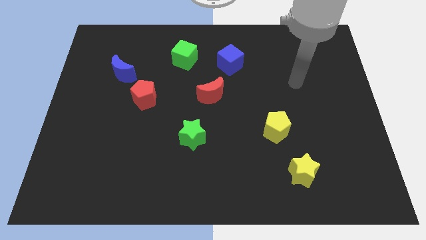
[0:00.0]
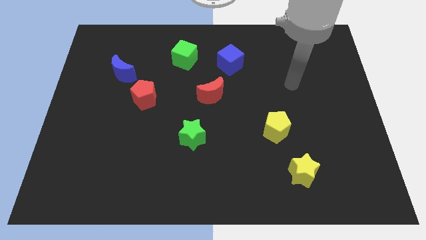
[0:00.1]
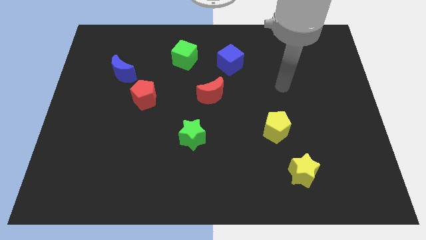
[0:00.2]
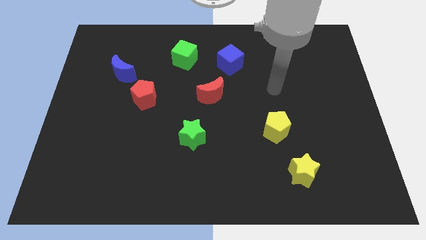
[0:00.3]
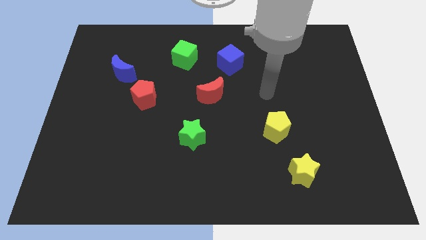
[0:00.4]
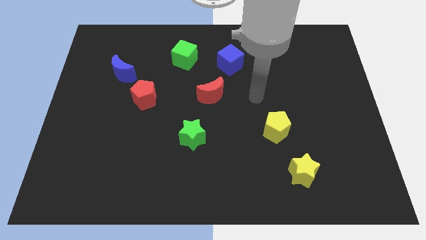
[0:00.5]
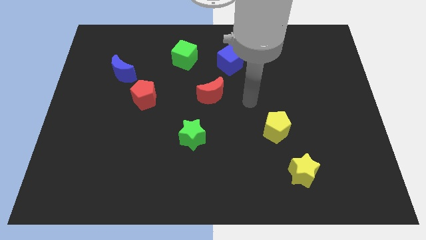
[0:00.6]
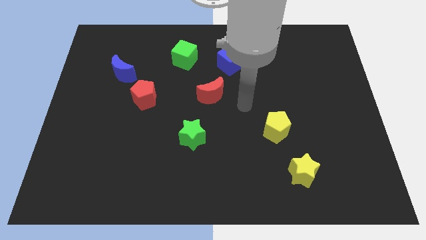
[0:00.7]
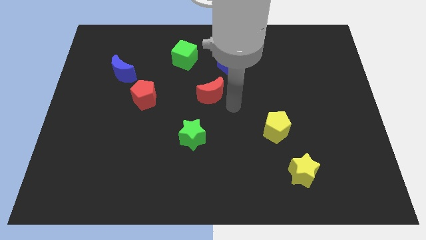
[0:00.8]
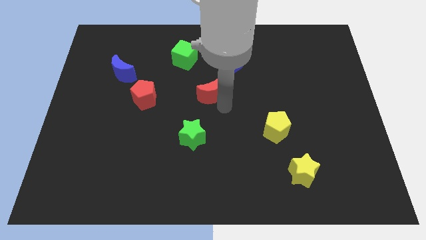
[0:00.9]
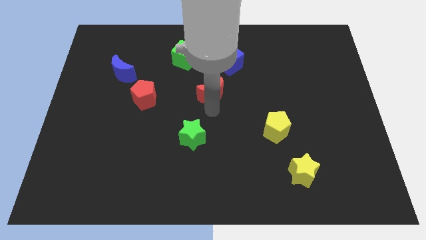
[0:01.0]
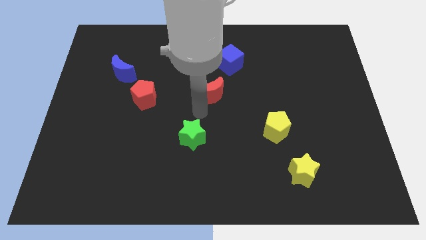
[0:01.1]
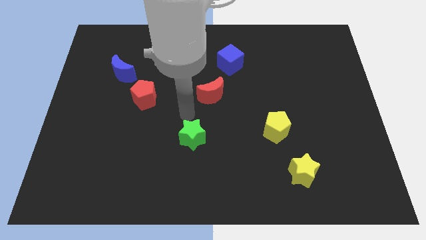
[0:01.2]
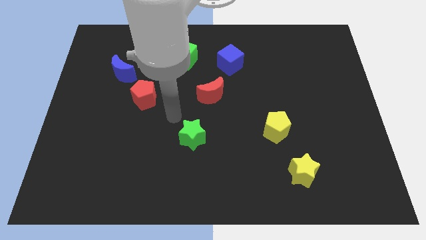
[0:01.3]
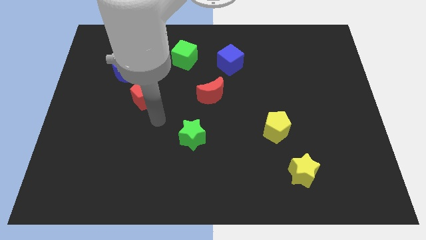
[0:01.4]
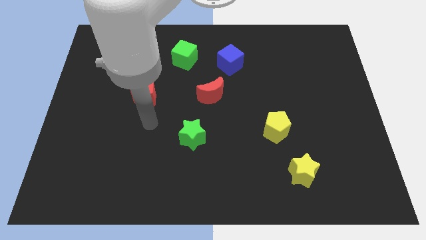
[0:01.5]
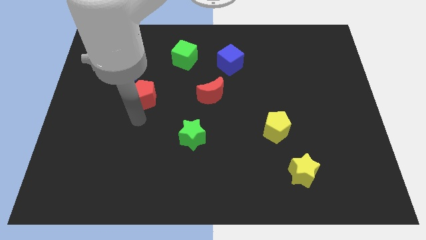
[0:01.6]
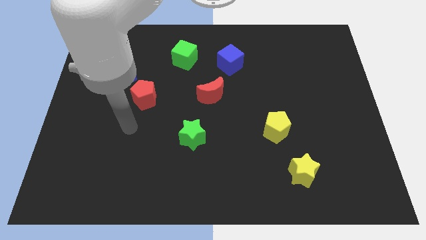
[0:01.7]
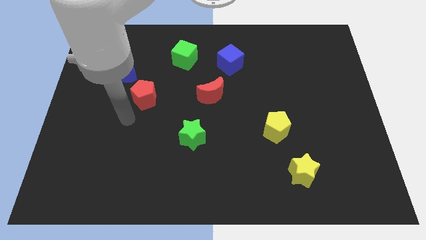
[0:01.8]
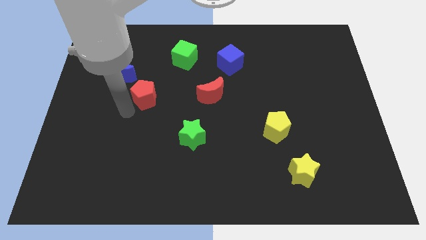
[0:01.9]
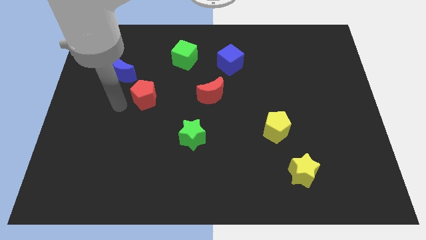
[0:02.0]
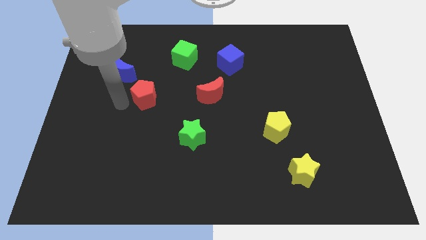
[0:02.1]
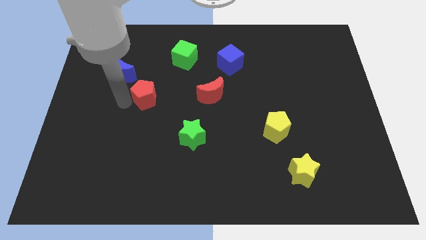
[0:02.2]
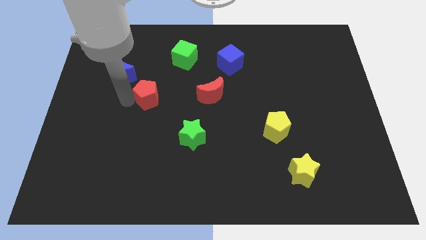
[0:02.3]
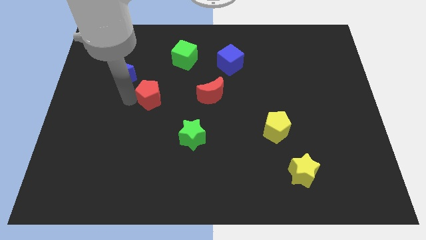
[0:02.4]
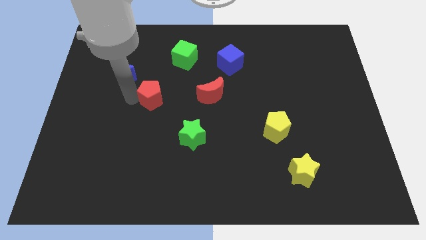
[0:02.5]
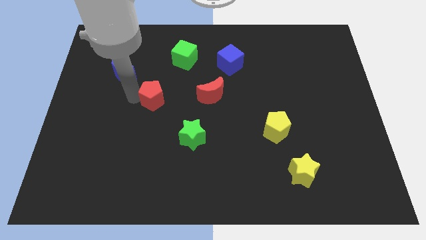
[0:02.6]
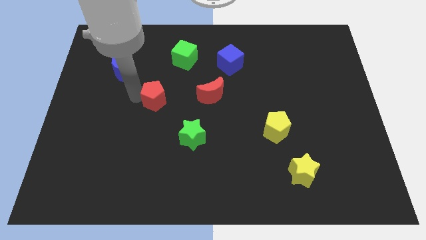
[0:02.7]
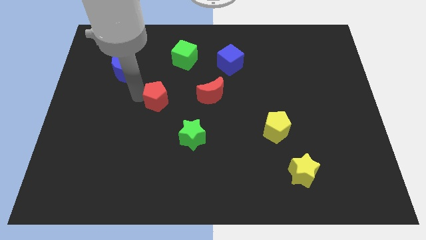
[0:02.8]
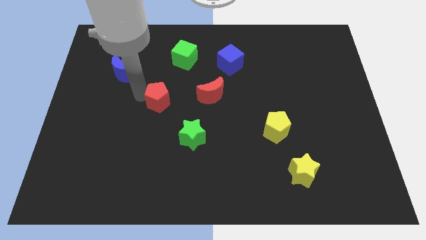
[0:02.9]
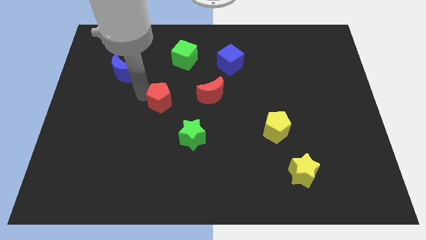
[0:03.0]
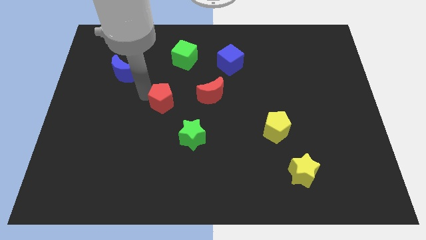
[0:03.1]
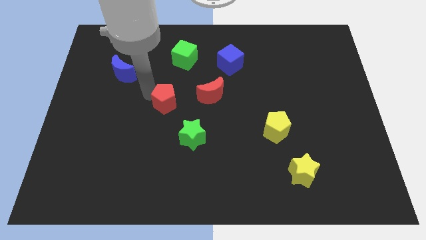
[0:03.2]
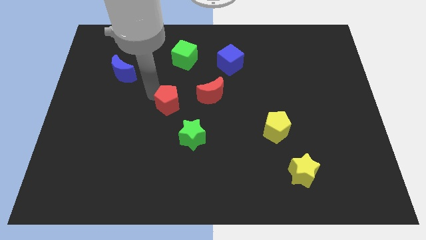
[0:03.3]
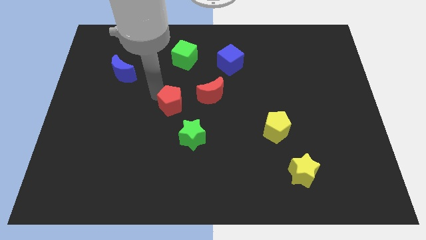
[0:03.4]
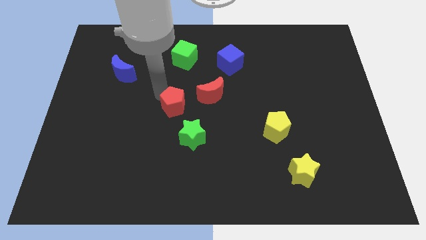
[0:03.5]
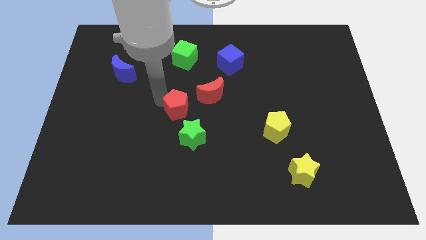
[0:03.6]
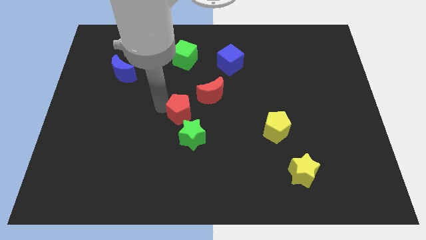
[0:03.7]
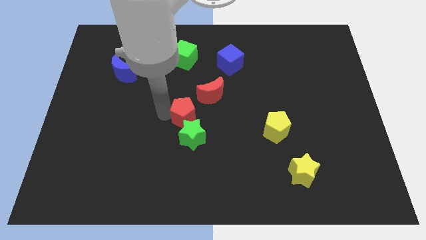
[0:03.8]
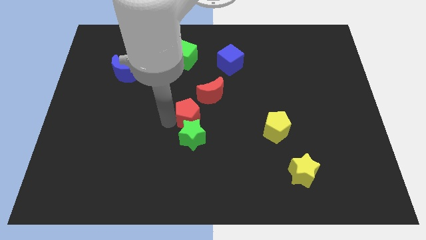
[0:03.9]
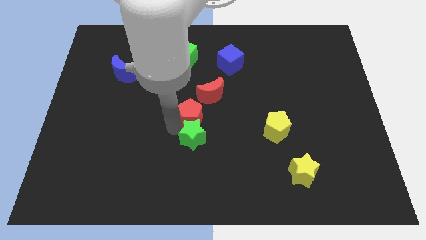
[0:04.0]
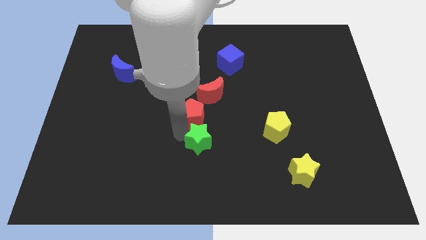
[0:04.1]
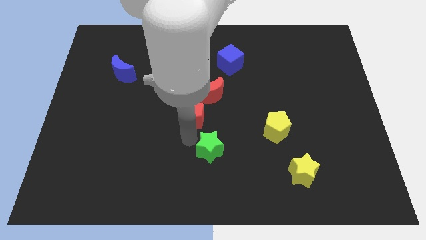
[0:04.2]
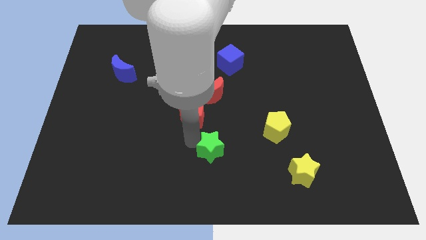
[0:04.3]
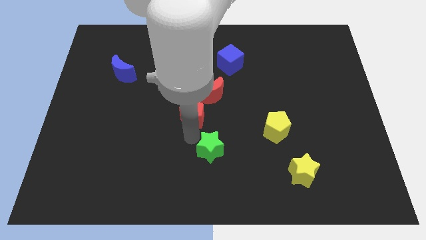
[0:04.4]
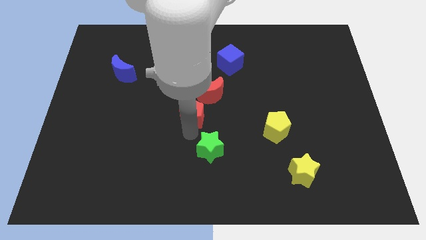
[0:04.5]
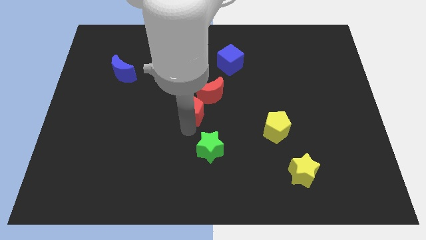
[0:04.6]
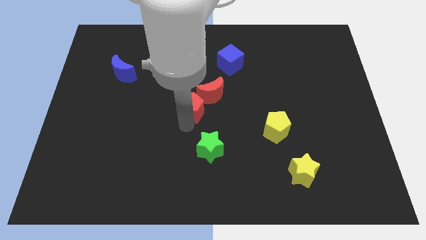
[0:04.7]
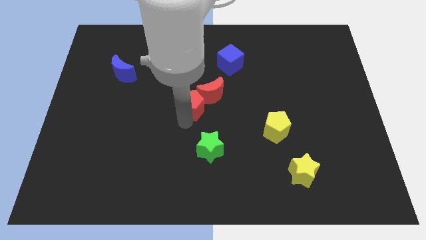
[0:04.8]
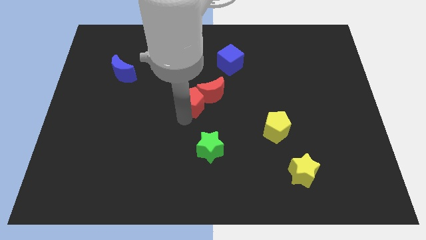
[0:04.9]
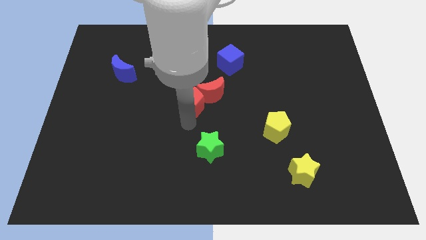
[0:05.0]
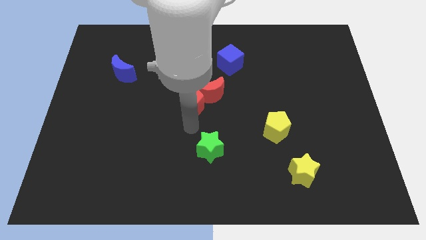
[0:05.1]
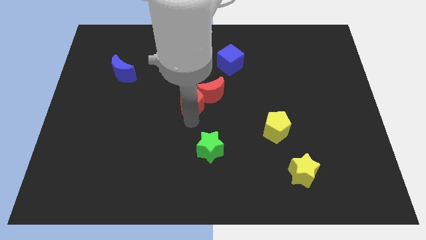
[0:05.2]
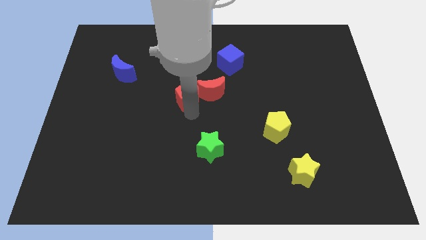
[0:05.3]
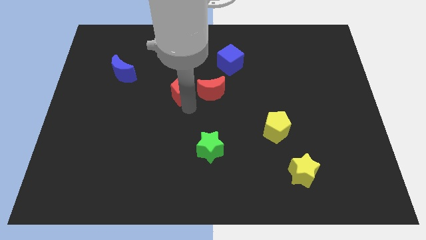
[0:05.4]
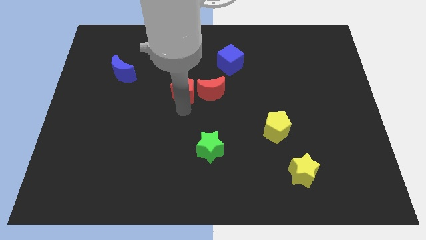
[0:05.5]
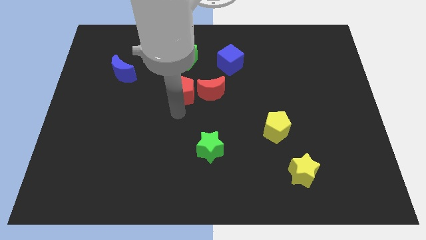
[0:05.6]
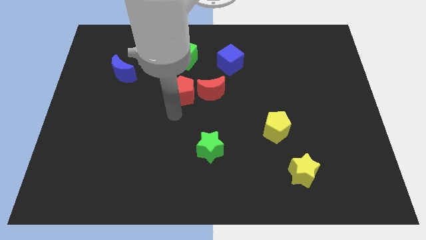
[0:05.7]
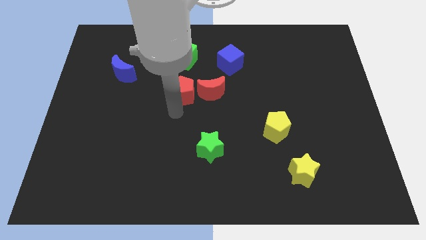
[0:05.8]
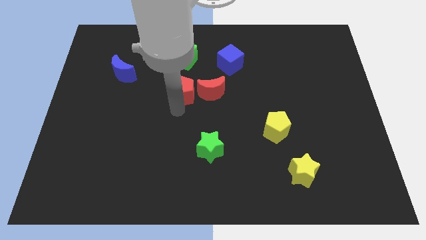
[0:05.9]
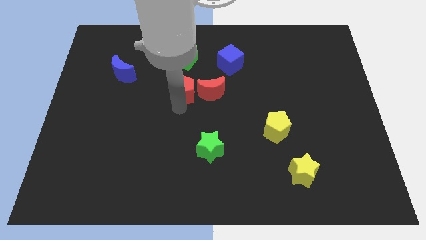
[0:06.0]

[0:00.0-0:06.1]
slide the red pentagon diagonally up and to the left of the red moon

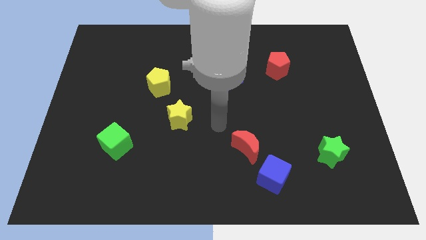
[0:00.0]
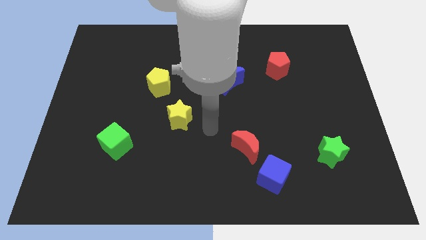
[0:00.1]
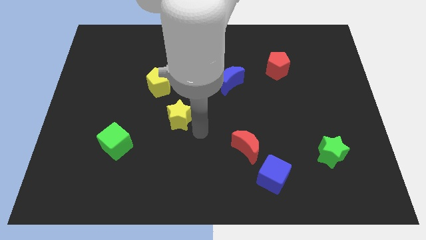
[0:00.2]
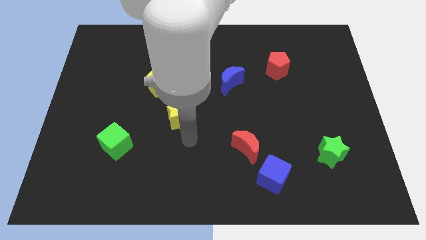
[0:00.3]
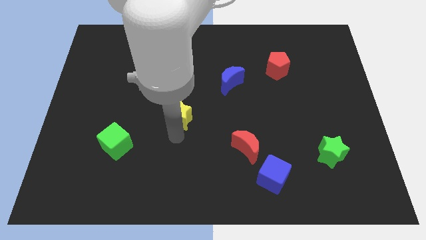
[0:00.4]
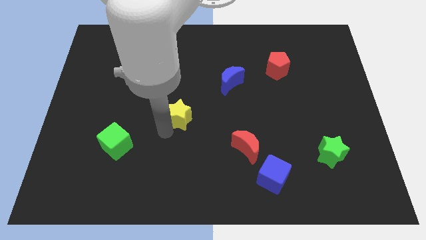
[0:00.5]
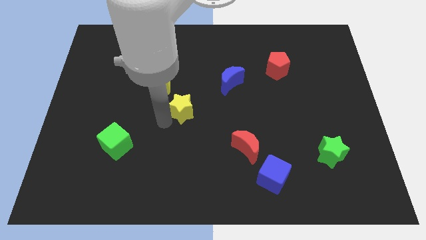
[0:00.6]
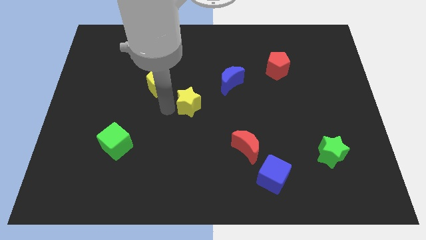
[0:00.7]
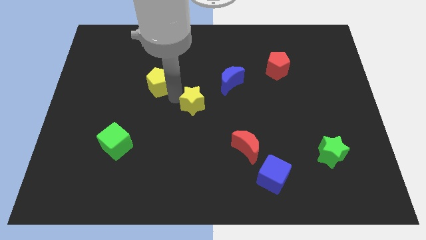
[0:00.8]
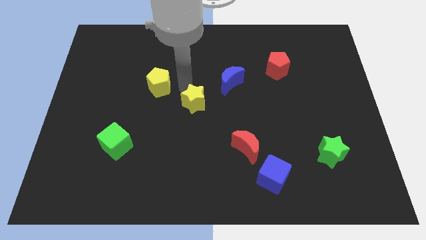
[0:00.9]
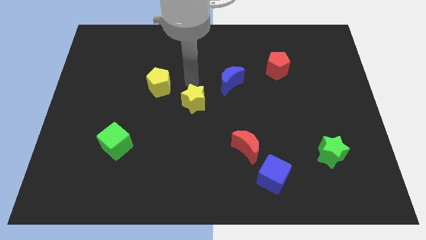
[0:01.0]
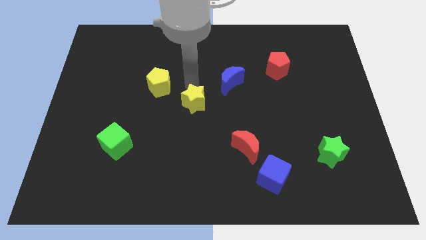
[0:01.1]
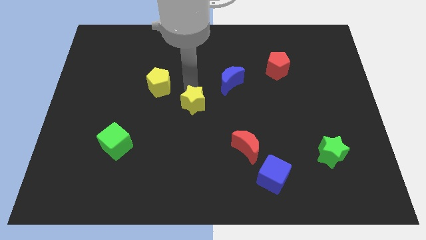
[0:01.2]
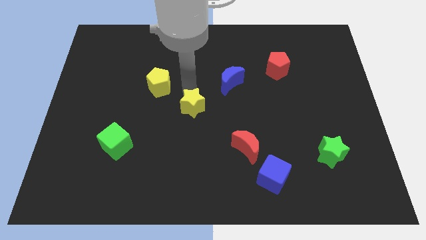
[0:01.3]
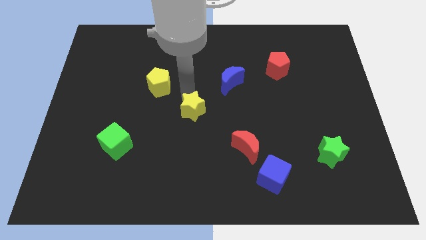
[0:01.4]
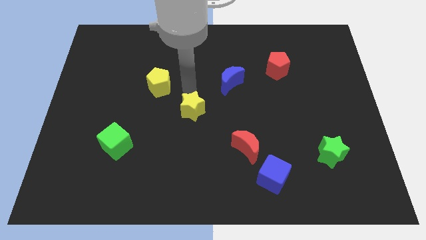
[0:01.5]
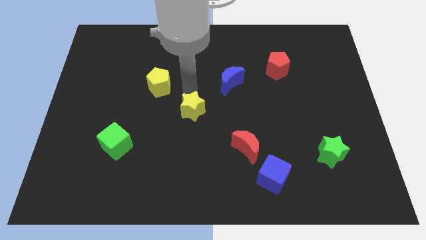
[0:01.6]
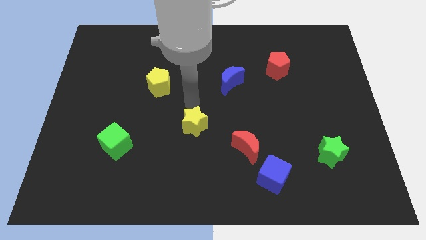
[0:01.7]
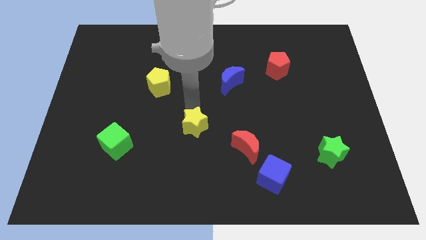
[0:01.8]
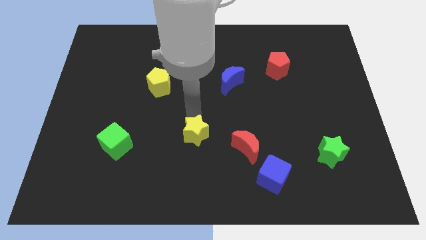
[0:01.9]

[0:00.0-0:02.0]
move the yellow star left of the red moon
